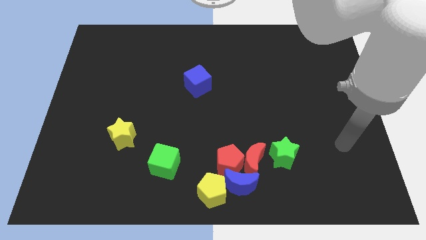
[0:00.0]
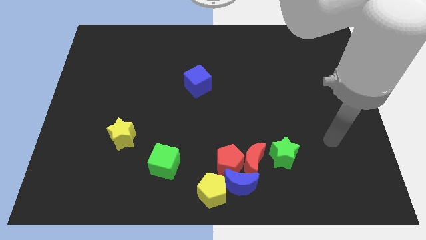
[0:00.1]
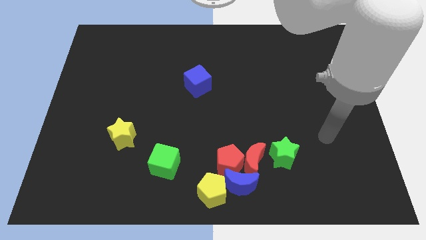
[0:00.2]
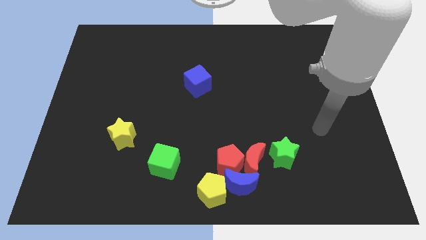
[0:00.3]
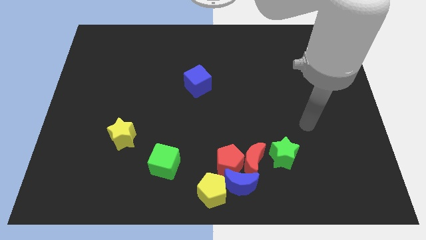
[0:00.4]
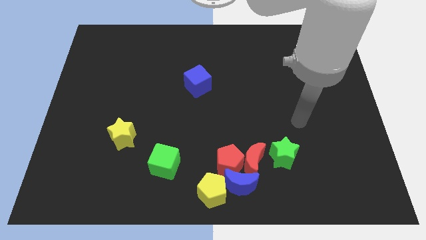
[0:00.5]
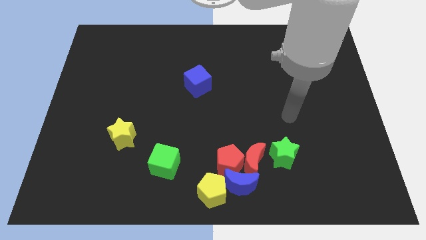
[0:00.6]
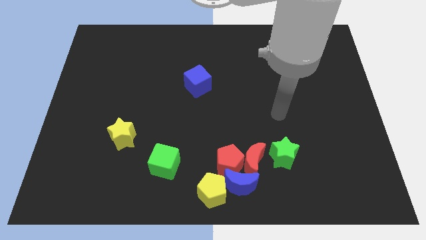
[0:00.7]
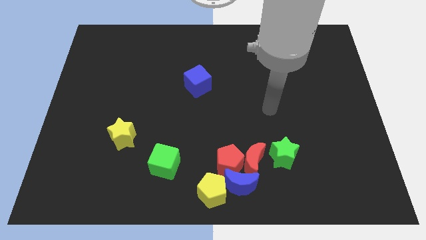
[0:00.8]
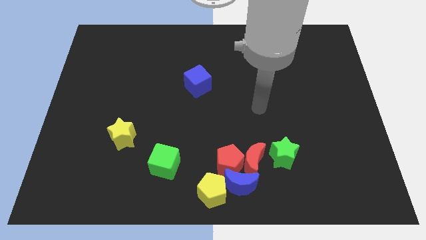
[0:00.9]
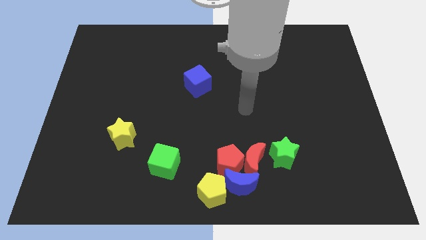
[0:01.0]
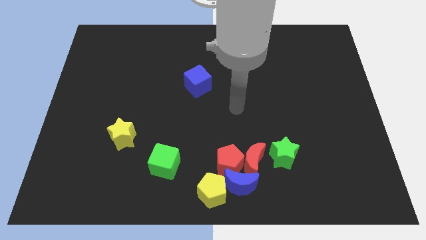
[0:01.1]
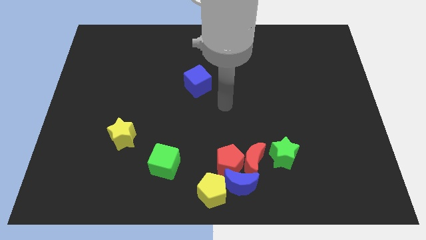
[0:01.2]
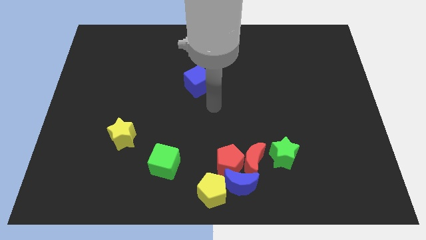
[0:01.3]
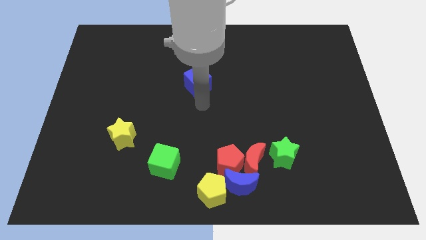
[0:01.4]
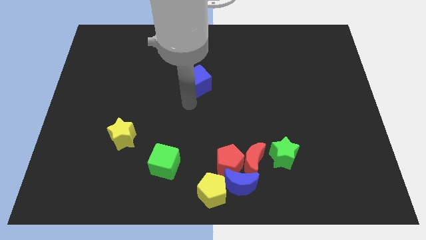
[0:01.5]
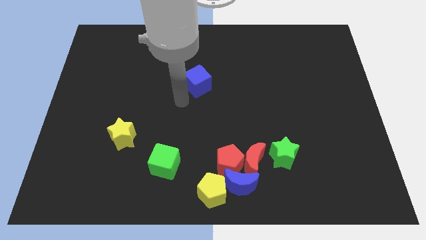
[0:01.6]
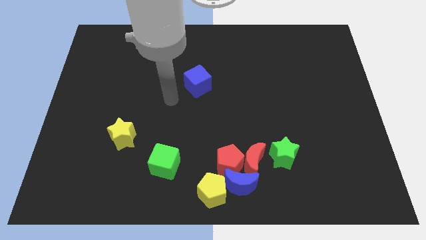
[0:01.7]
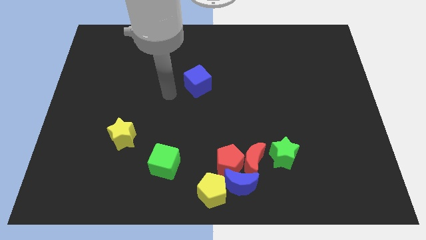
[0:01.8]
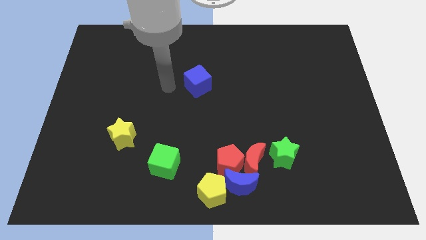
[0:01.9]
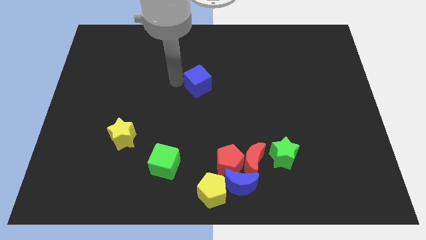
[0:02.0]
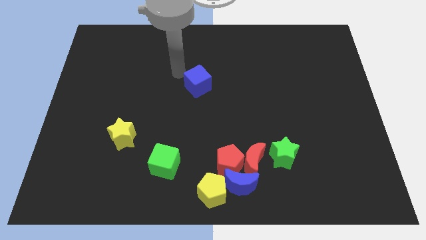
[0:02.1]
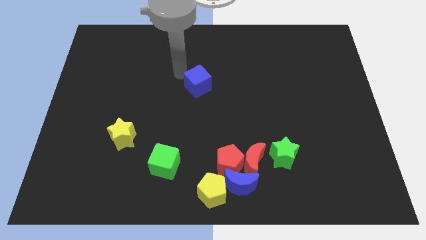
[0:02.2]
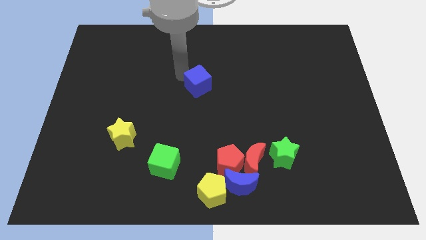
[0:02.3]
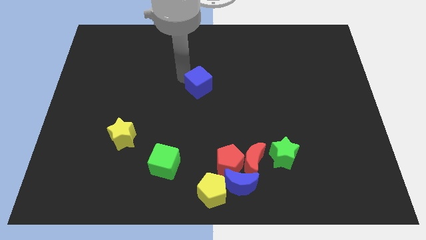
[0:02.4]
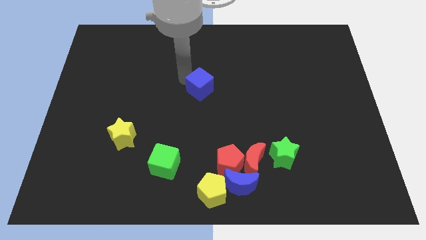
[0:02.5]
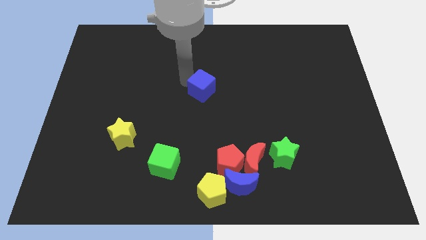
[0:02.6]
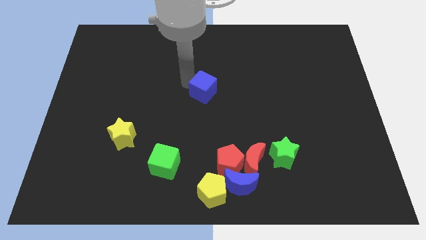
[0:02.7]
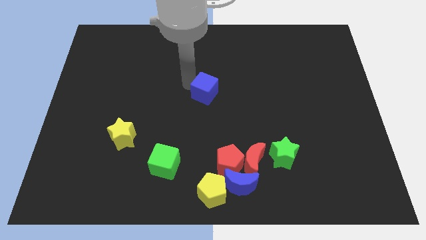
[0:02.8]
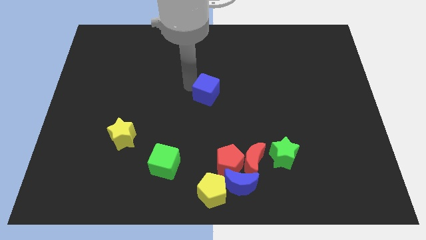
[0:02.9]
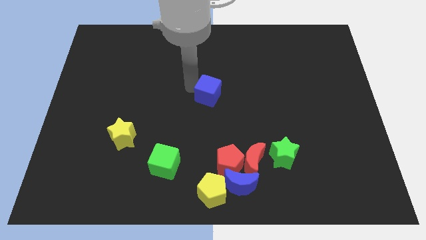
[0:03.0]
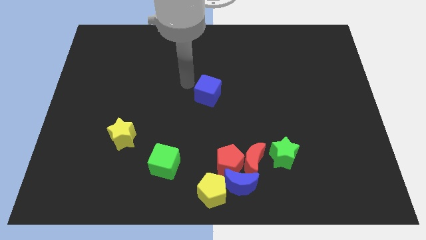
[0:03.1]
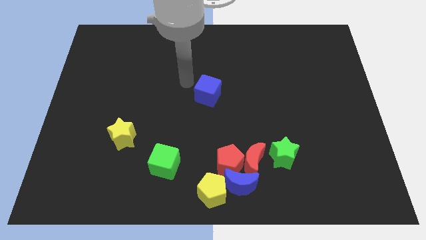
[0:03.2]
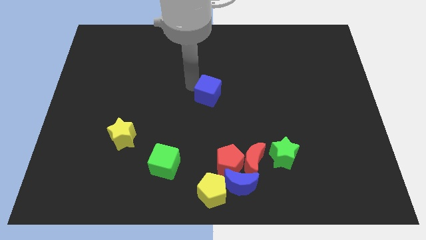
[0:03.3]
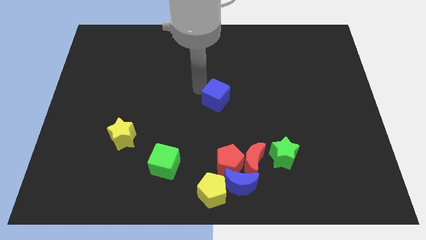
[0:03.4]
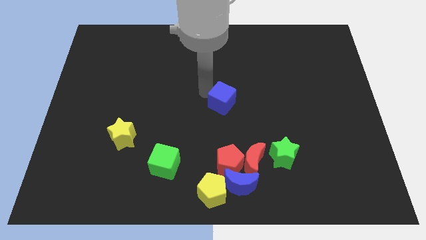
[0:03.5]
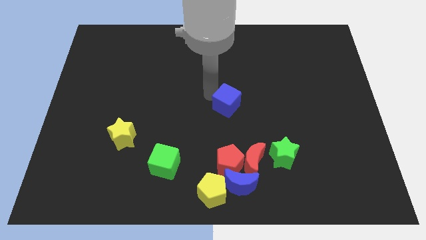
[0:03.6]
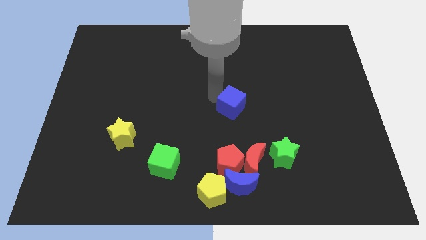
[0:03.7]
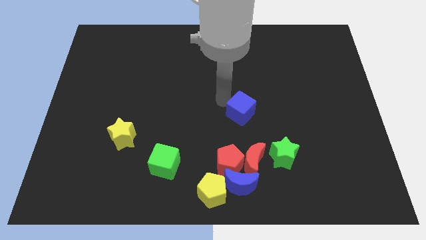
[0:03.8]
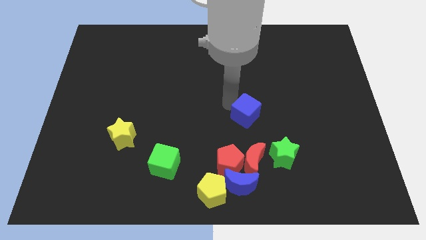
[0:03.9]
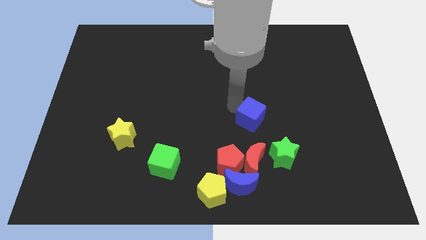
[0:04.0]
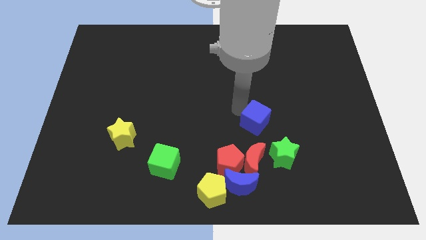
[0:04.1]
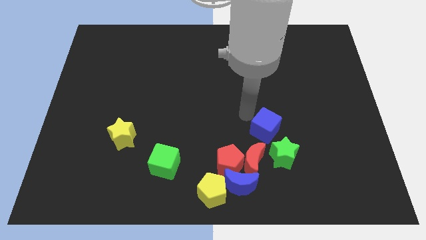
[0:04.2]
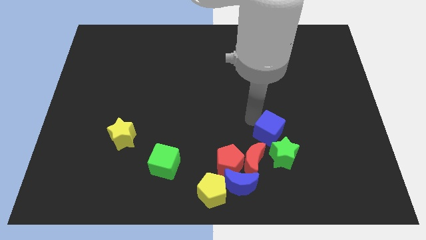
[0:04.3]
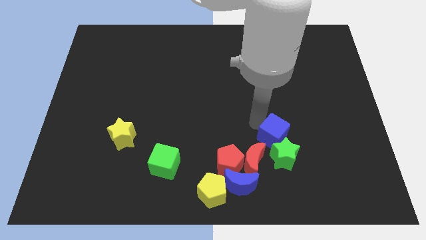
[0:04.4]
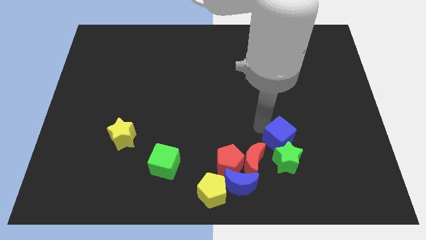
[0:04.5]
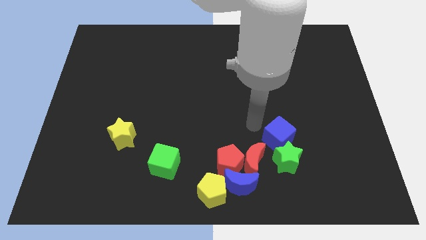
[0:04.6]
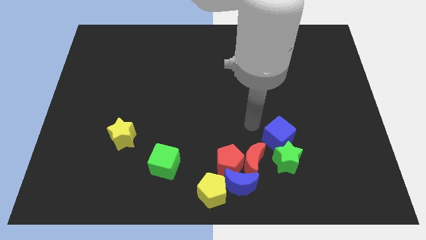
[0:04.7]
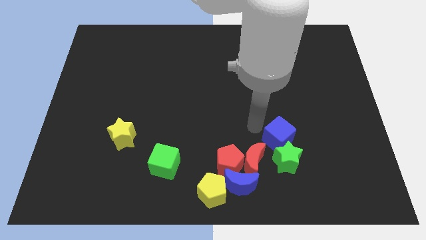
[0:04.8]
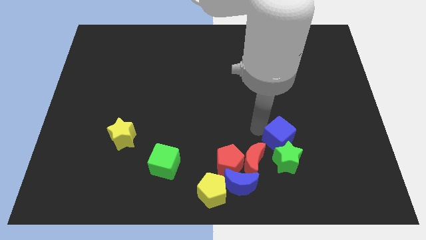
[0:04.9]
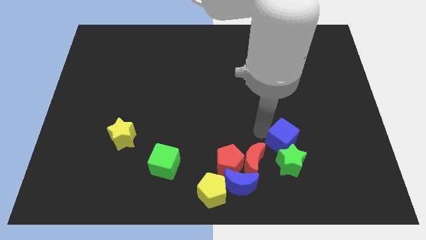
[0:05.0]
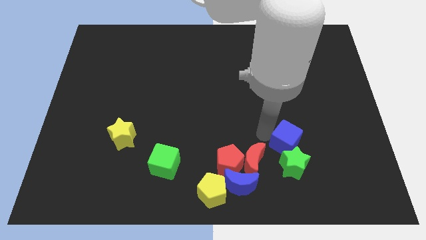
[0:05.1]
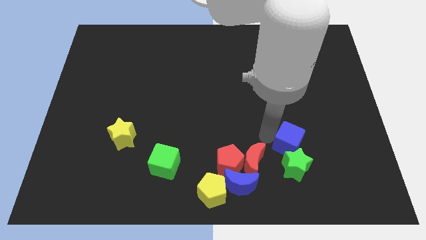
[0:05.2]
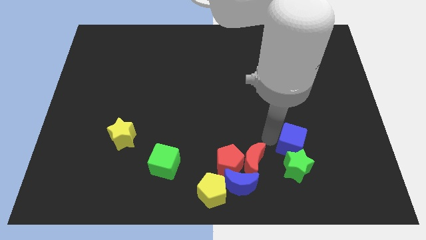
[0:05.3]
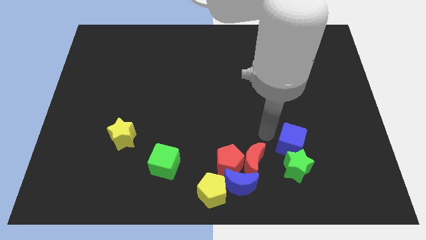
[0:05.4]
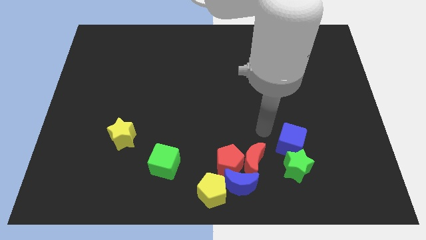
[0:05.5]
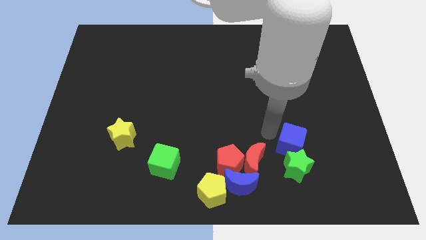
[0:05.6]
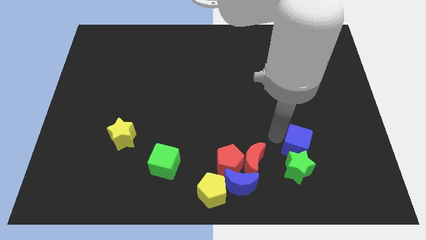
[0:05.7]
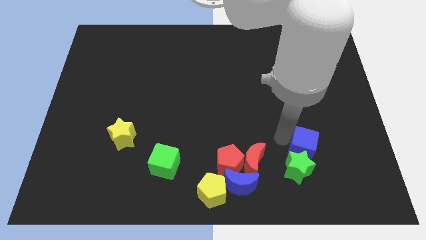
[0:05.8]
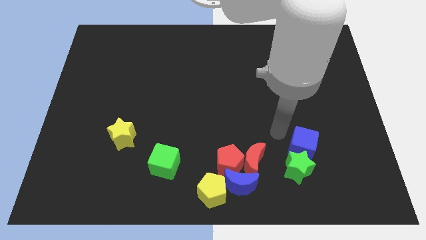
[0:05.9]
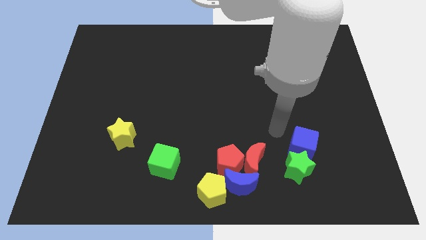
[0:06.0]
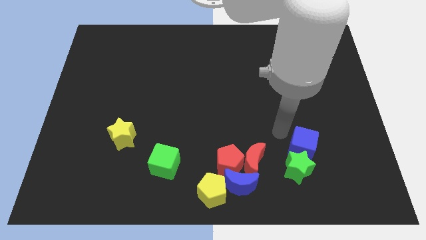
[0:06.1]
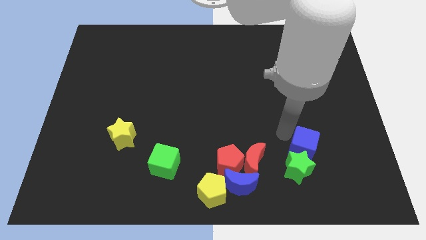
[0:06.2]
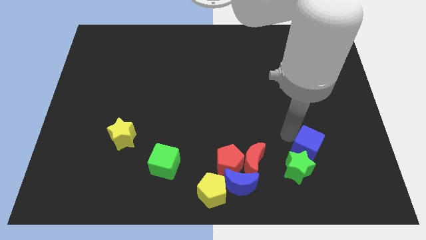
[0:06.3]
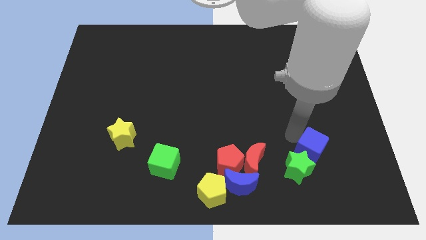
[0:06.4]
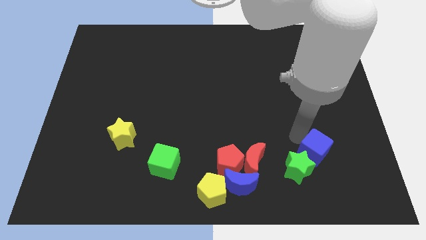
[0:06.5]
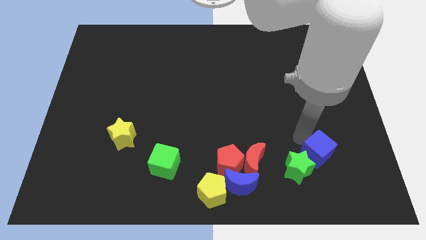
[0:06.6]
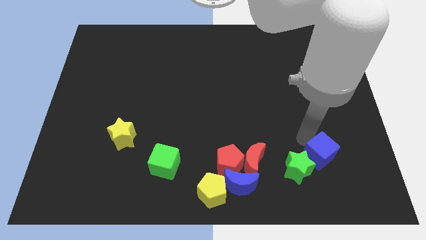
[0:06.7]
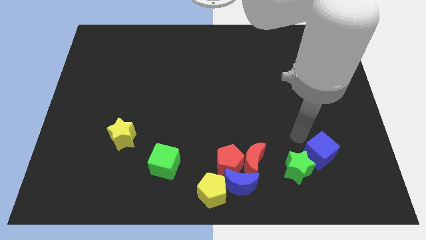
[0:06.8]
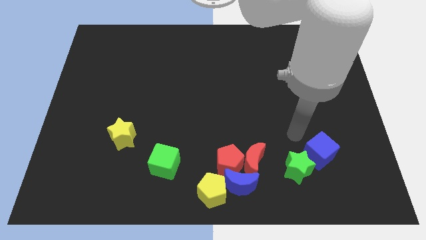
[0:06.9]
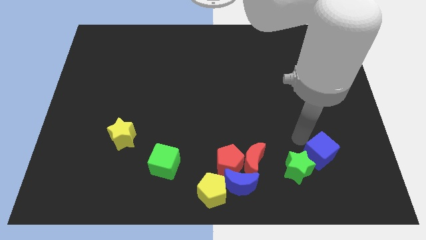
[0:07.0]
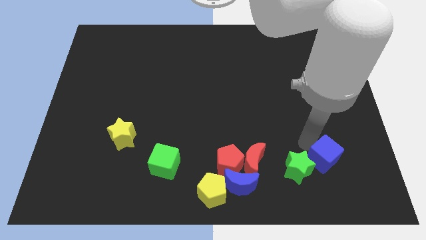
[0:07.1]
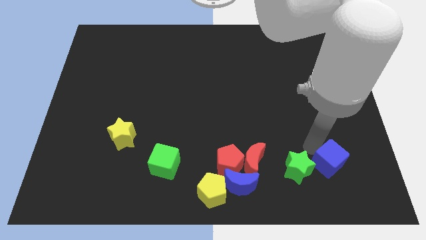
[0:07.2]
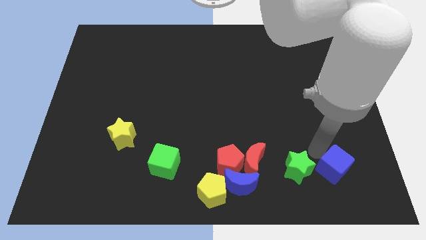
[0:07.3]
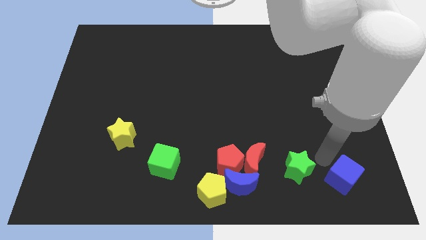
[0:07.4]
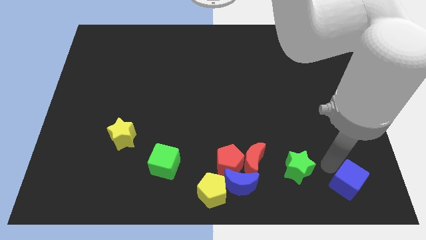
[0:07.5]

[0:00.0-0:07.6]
put the blue cube to the bottom right
